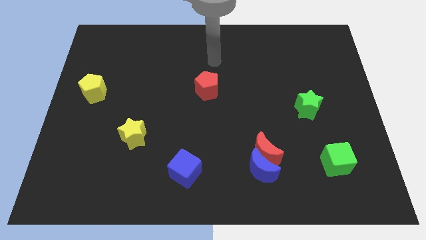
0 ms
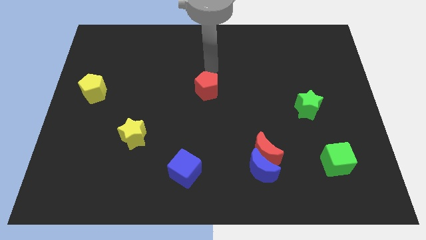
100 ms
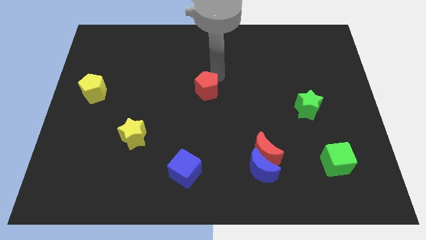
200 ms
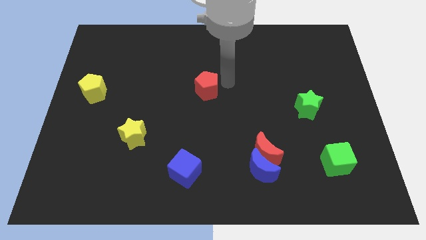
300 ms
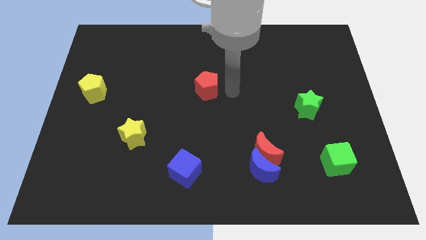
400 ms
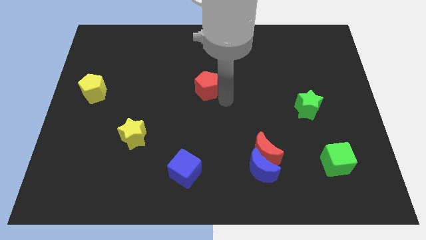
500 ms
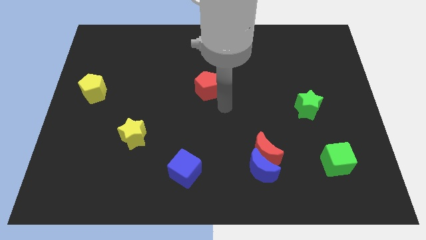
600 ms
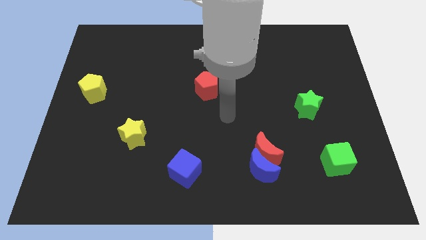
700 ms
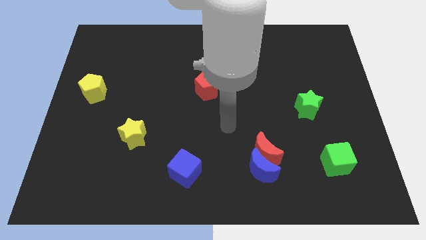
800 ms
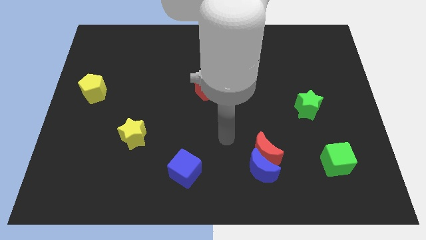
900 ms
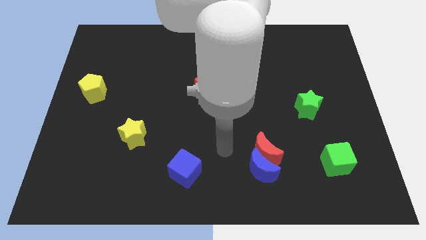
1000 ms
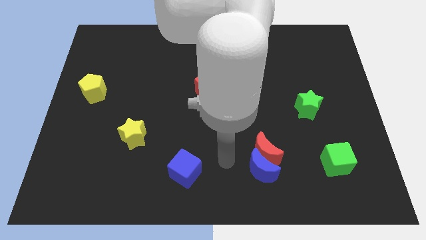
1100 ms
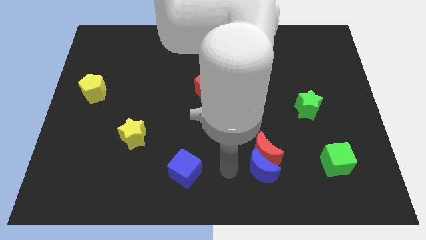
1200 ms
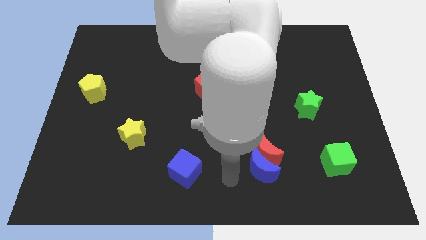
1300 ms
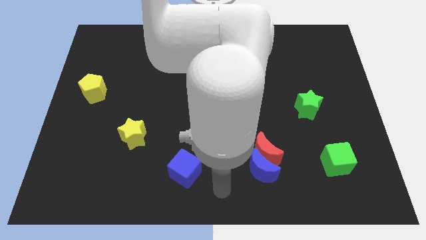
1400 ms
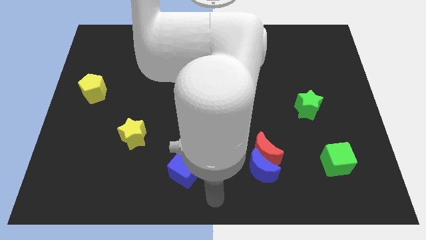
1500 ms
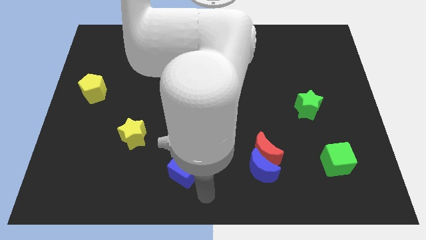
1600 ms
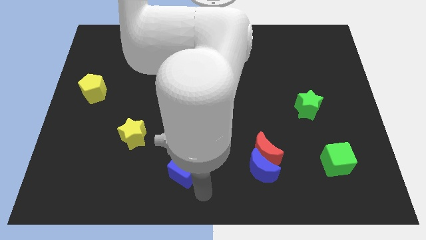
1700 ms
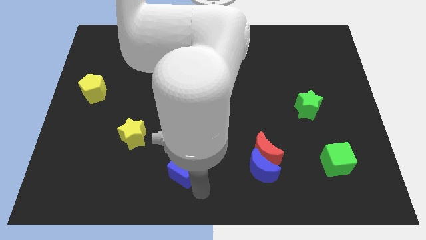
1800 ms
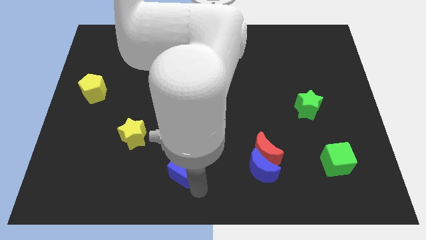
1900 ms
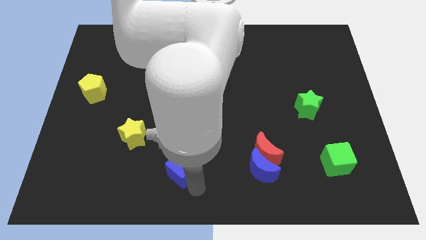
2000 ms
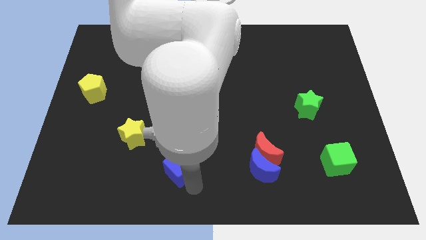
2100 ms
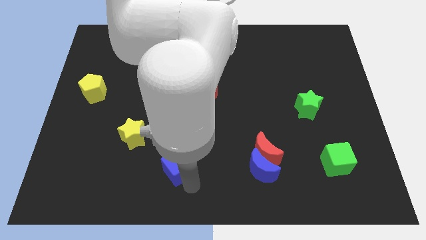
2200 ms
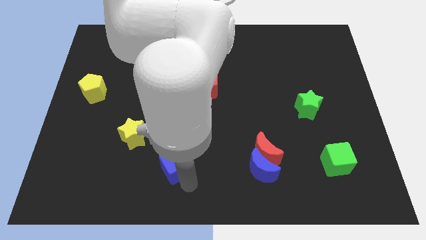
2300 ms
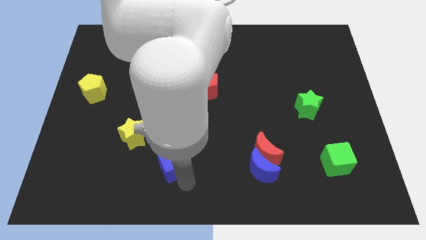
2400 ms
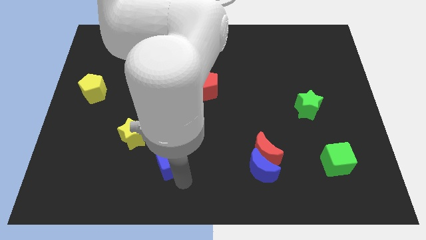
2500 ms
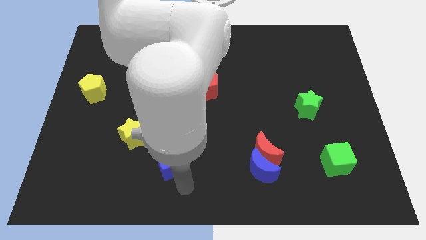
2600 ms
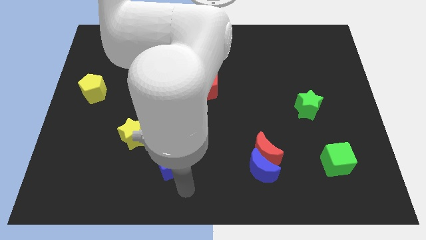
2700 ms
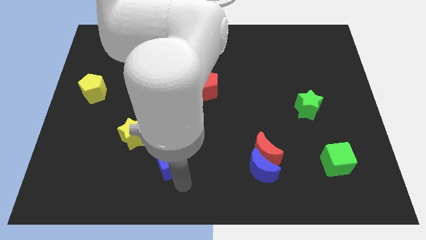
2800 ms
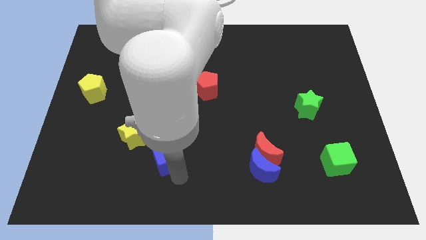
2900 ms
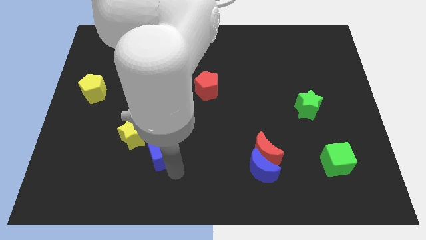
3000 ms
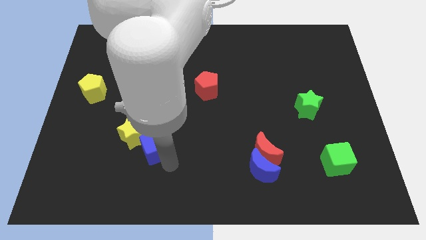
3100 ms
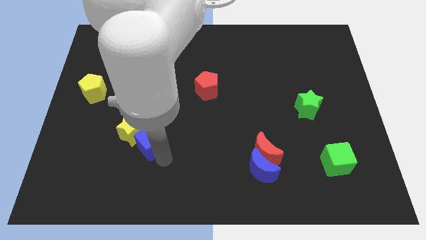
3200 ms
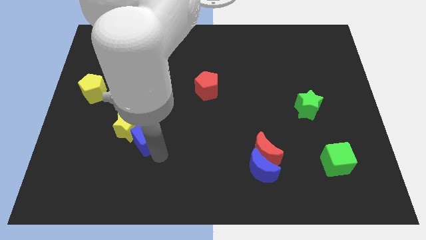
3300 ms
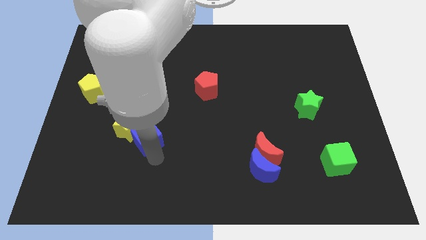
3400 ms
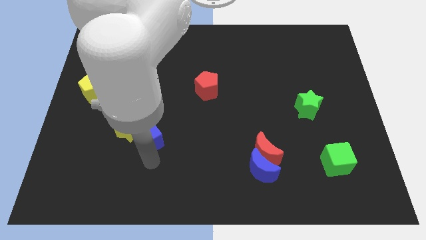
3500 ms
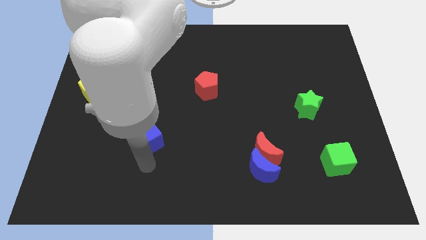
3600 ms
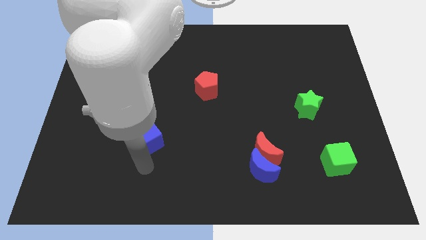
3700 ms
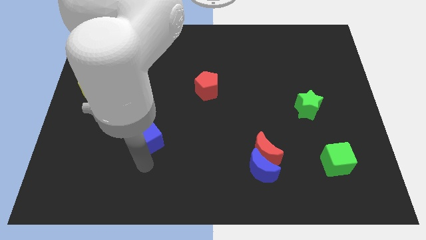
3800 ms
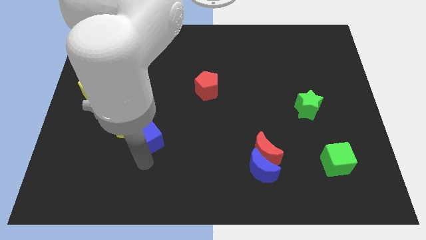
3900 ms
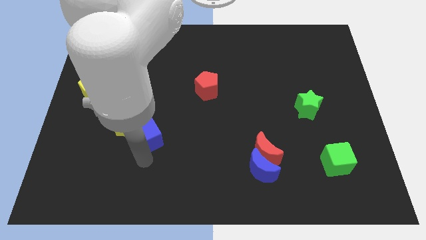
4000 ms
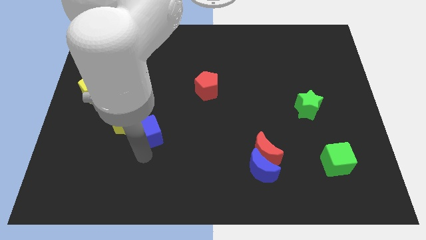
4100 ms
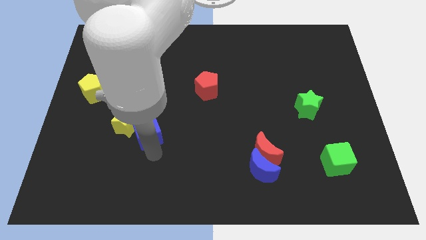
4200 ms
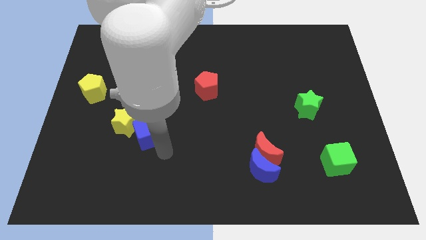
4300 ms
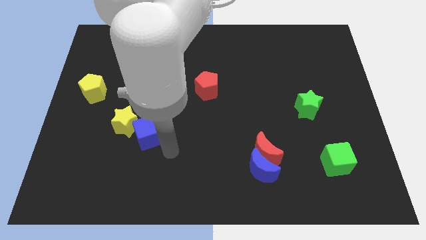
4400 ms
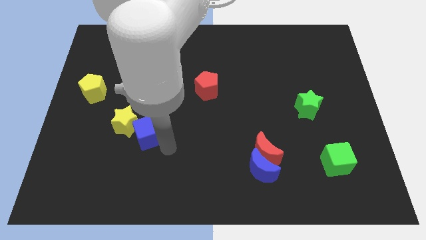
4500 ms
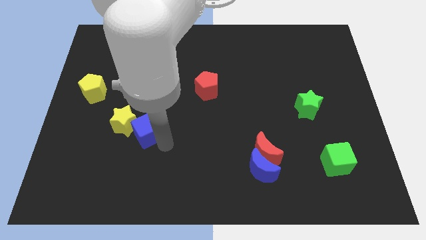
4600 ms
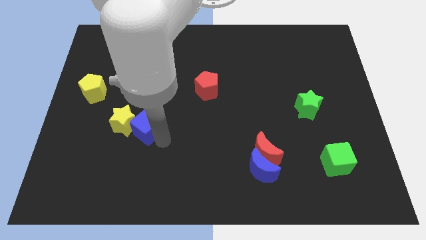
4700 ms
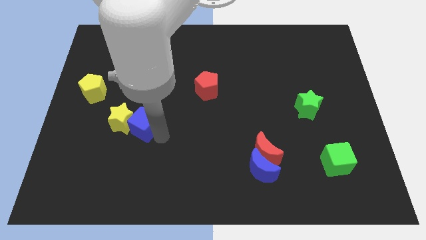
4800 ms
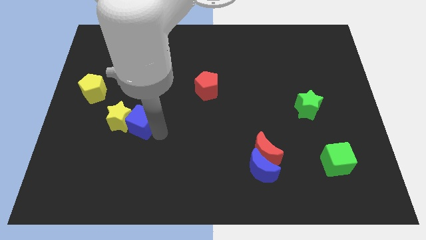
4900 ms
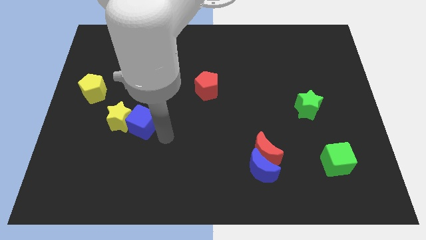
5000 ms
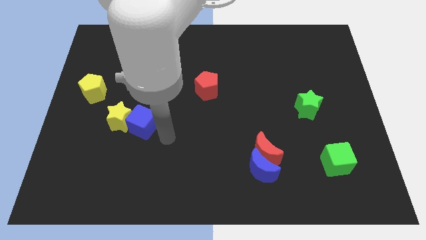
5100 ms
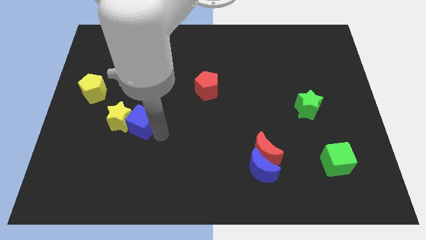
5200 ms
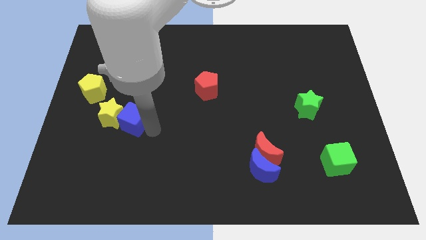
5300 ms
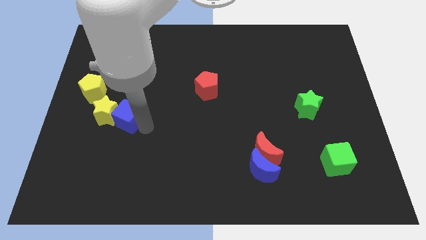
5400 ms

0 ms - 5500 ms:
slide the blue cube to the bottom right side of the yellow pentagon

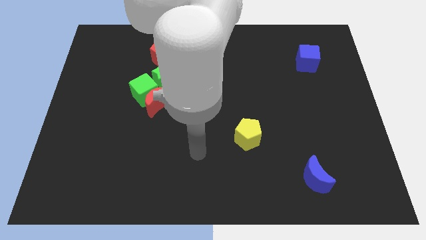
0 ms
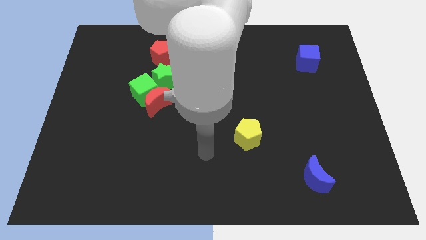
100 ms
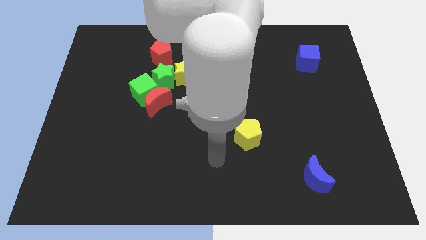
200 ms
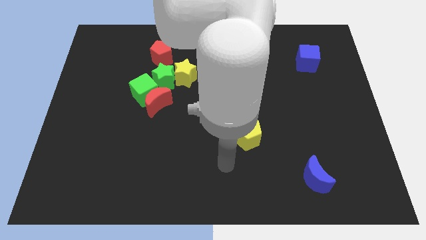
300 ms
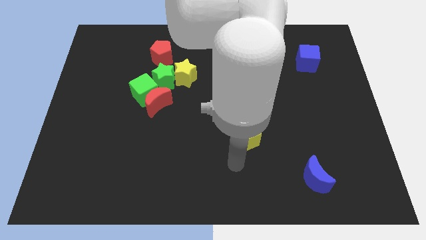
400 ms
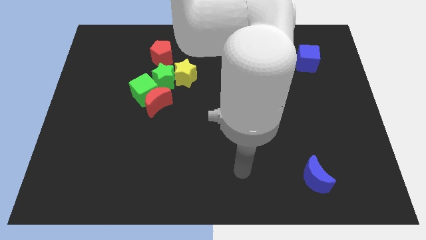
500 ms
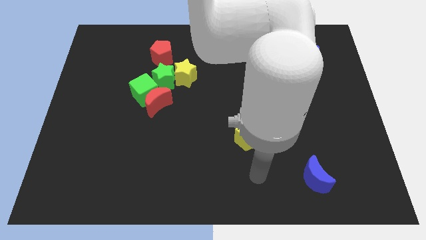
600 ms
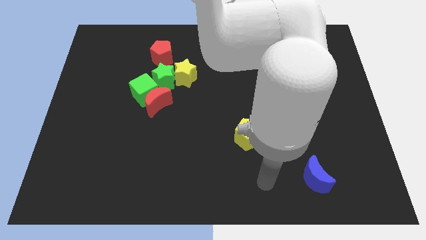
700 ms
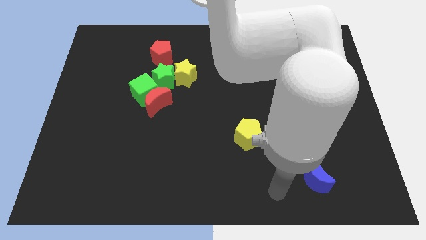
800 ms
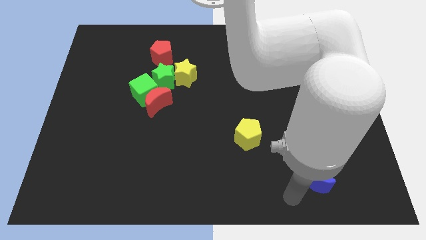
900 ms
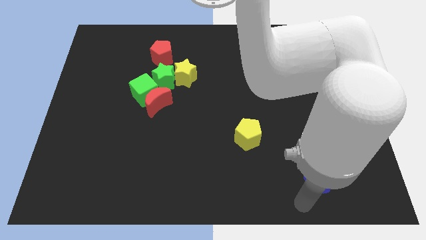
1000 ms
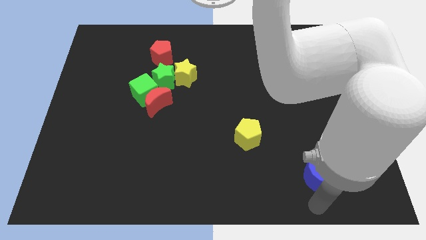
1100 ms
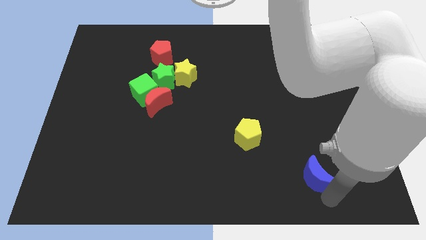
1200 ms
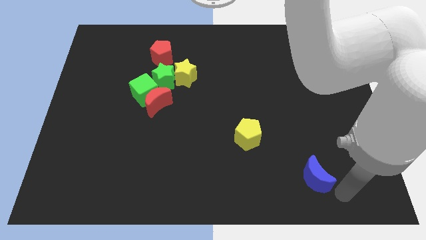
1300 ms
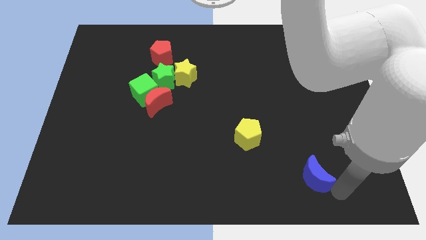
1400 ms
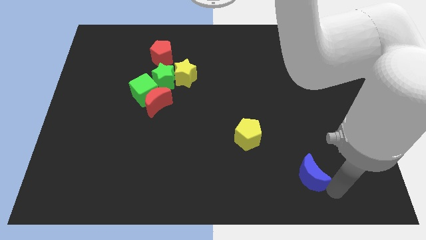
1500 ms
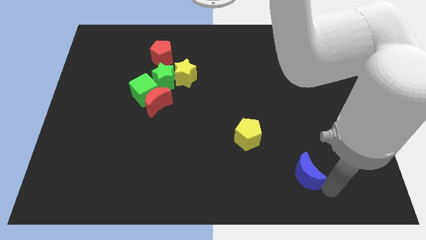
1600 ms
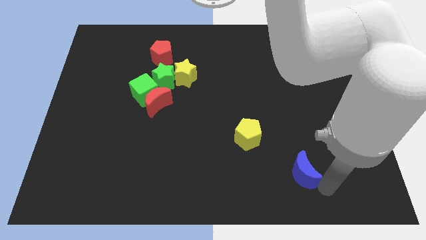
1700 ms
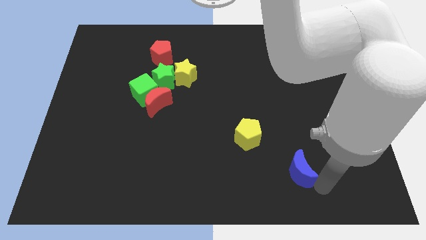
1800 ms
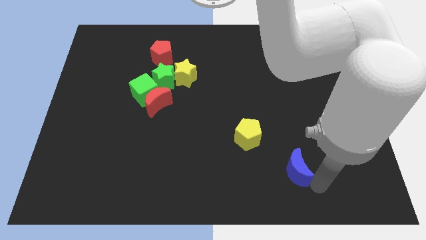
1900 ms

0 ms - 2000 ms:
put the blue moon to the bottom right side of the yellow pentagon

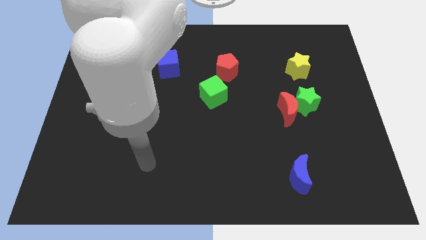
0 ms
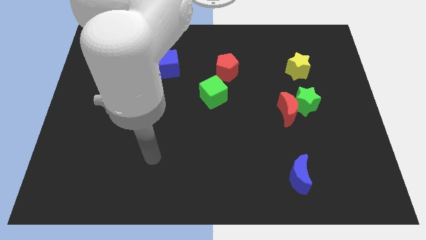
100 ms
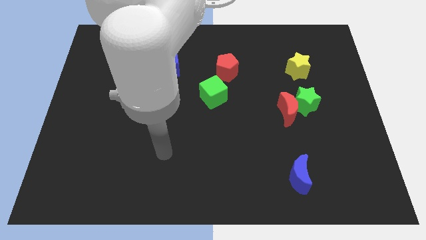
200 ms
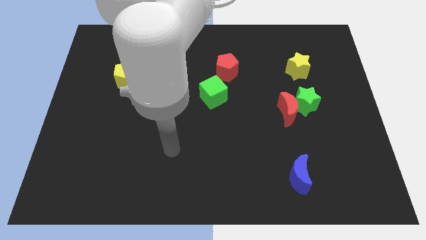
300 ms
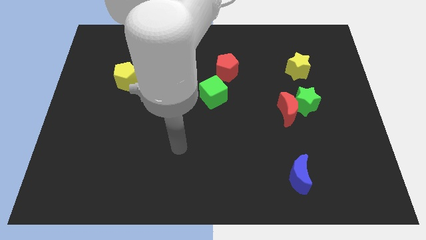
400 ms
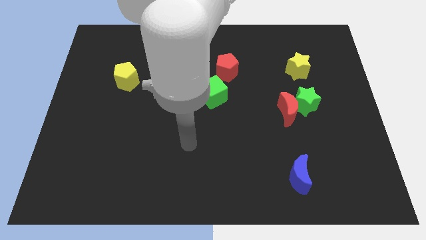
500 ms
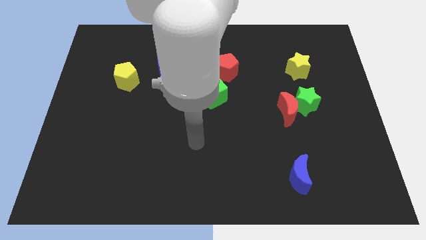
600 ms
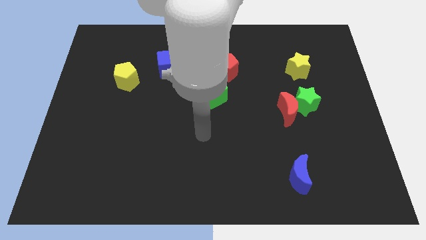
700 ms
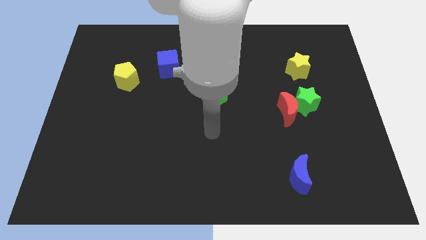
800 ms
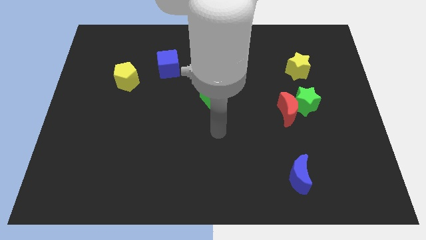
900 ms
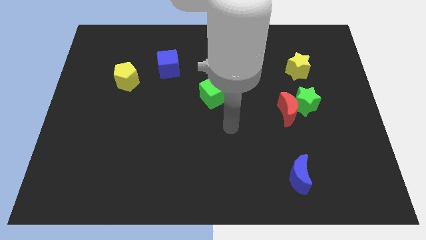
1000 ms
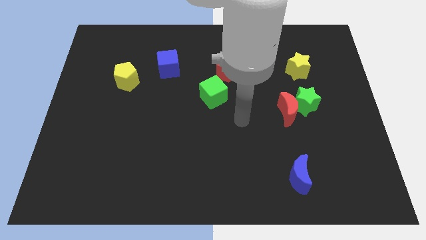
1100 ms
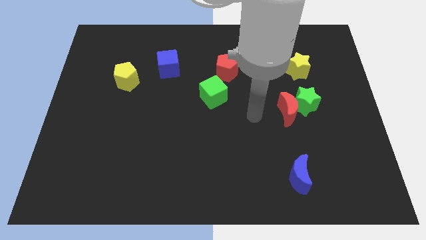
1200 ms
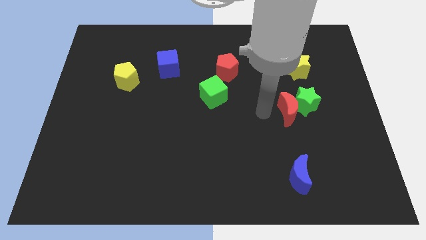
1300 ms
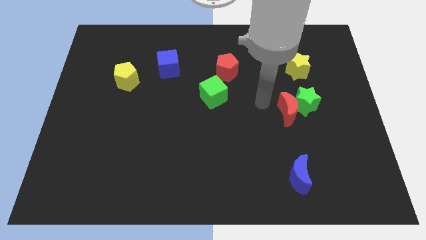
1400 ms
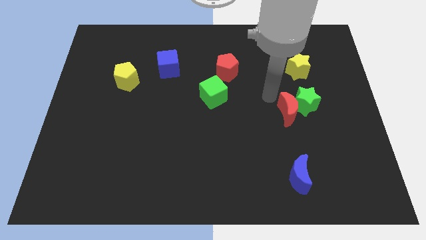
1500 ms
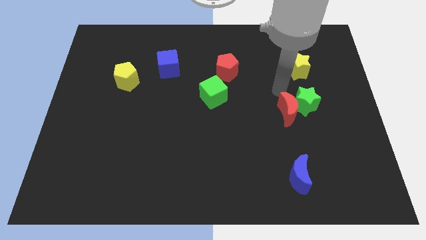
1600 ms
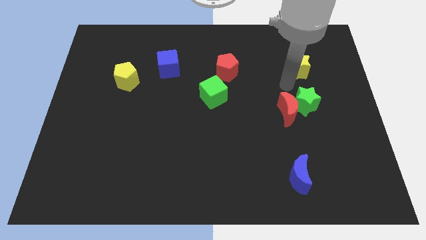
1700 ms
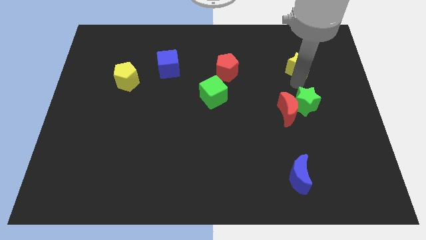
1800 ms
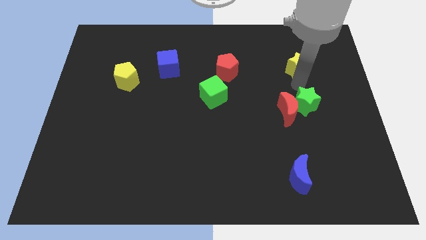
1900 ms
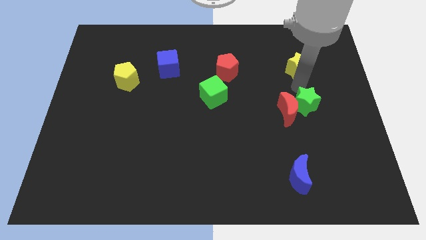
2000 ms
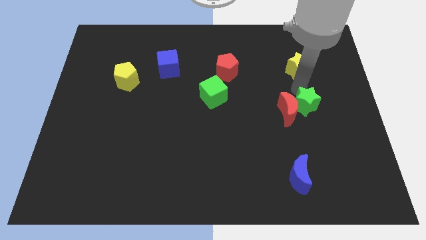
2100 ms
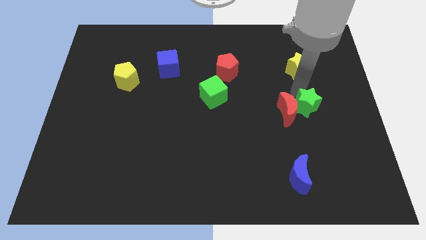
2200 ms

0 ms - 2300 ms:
slide the green star to the bottom right side of the red moon
